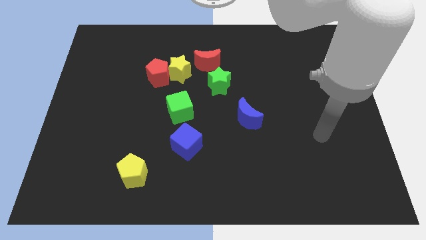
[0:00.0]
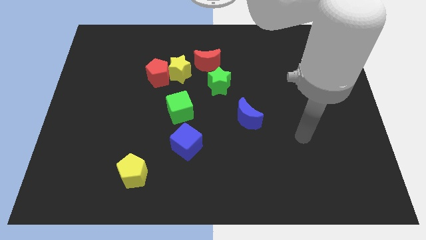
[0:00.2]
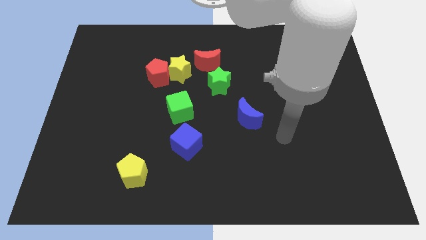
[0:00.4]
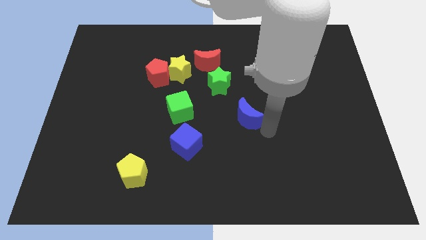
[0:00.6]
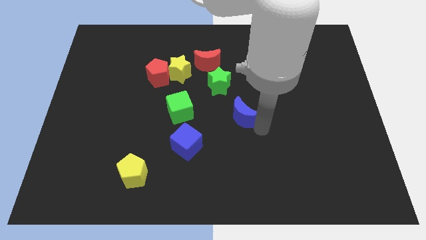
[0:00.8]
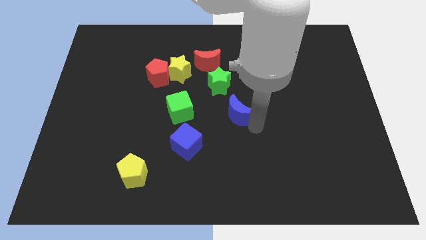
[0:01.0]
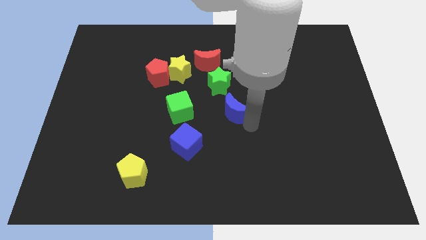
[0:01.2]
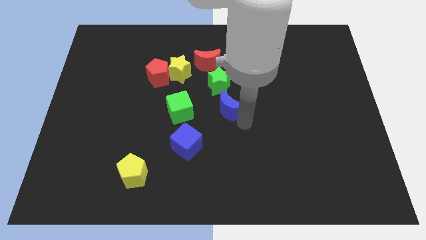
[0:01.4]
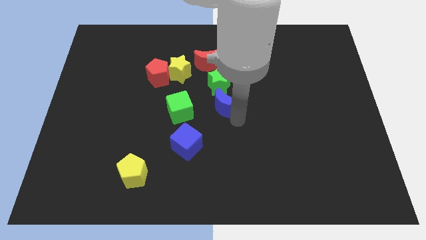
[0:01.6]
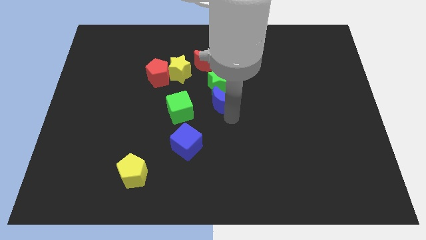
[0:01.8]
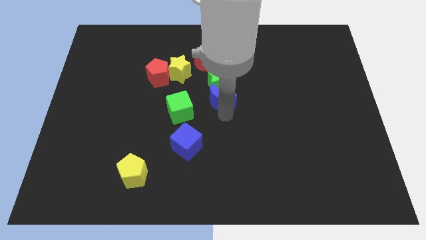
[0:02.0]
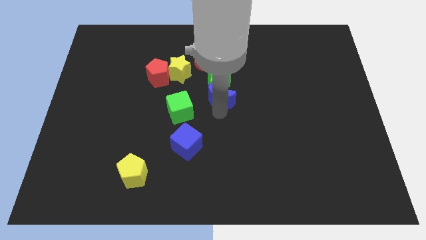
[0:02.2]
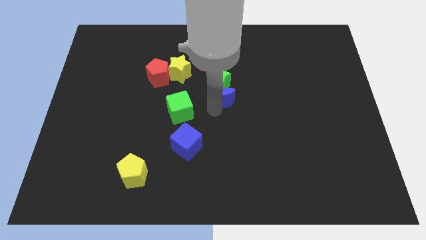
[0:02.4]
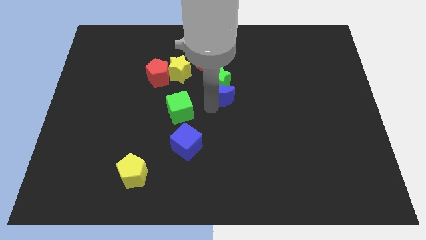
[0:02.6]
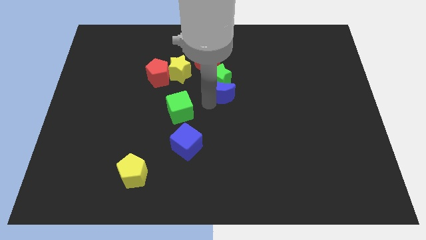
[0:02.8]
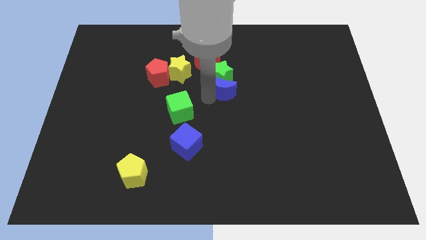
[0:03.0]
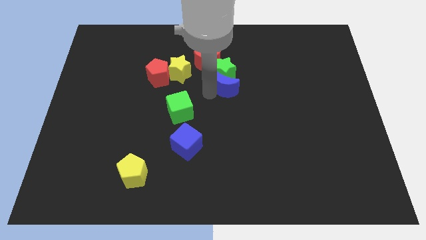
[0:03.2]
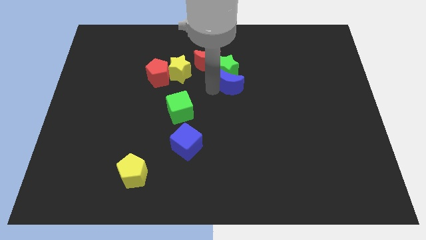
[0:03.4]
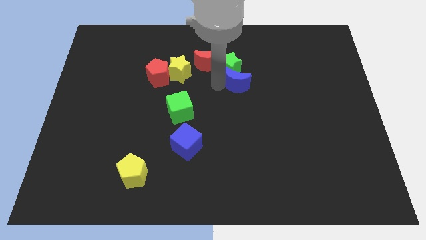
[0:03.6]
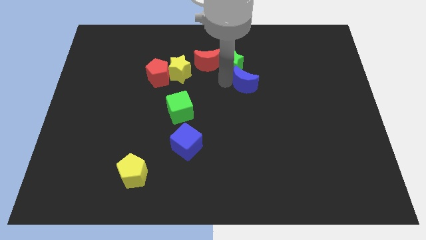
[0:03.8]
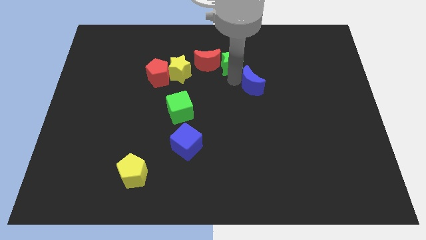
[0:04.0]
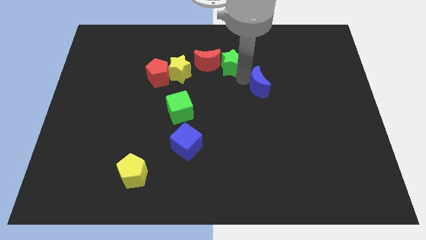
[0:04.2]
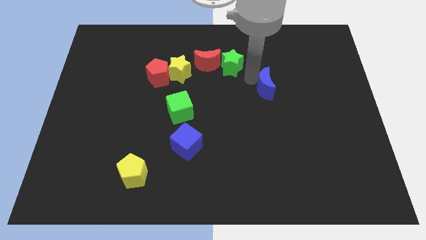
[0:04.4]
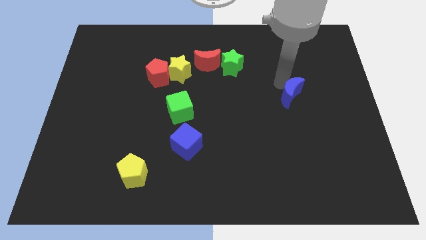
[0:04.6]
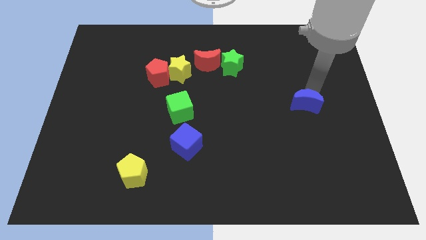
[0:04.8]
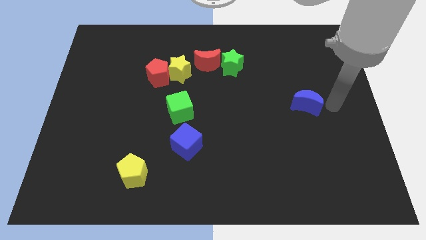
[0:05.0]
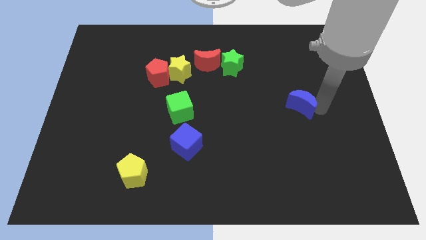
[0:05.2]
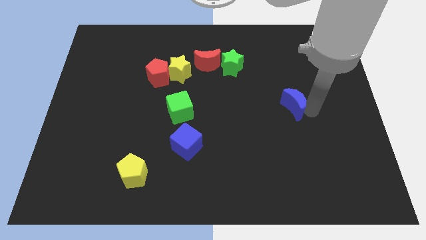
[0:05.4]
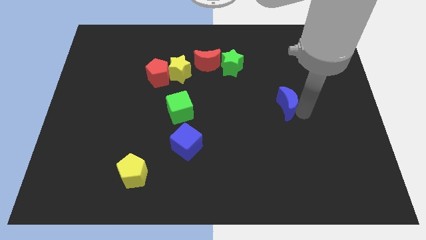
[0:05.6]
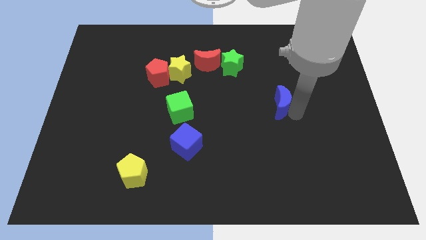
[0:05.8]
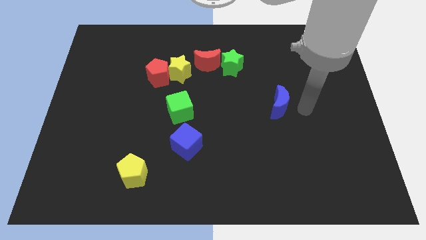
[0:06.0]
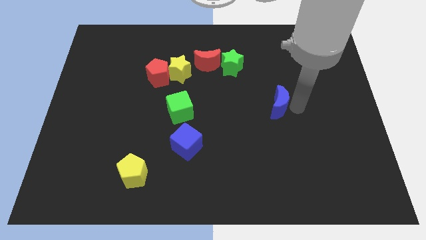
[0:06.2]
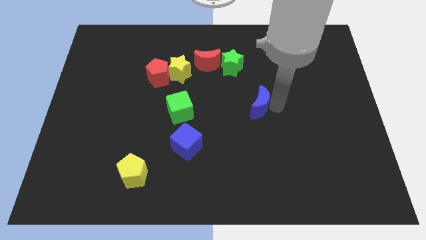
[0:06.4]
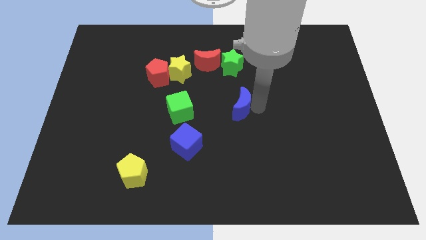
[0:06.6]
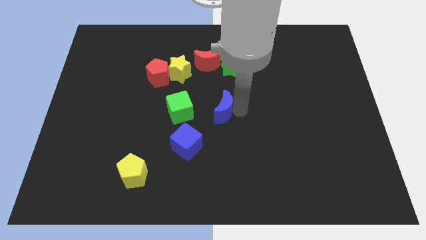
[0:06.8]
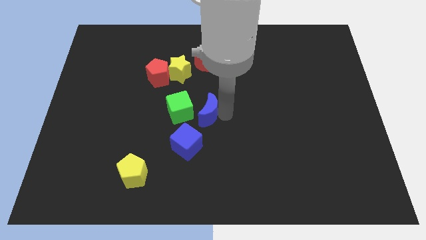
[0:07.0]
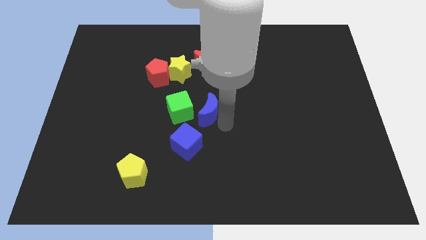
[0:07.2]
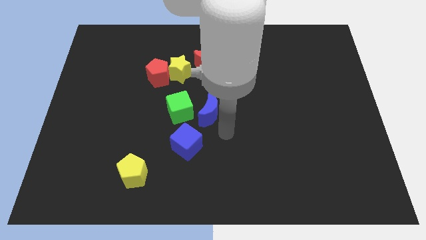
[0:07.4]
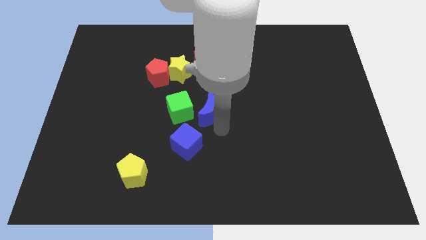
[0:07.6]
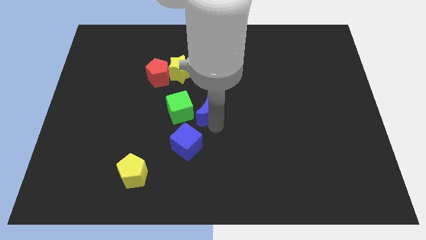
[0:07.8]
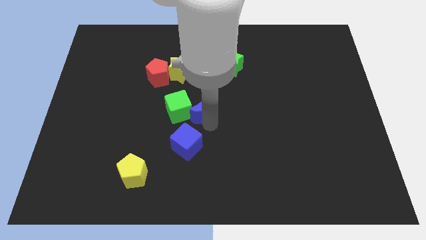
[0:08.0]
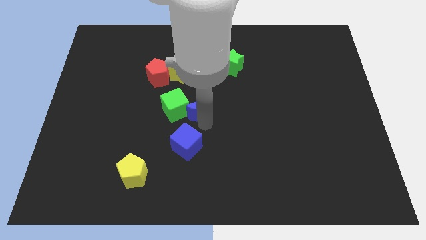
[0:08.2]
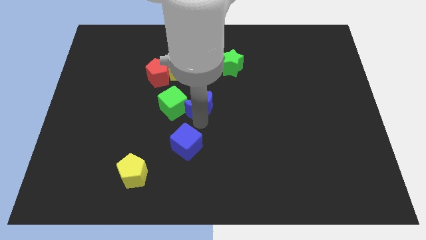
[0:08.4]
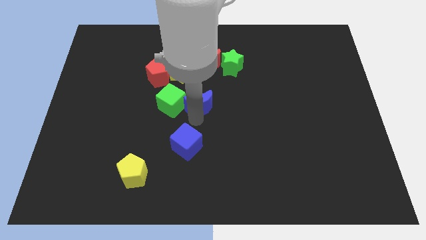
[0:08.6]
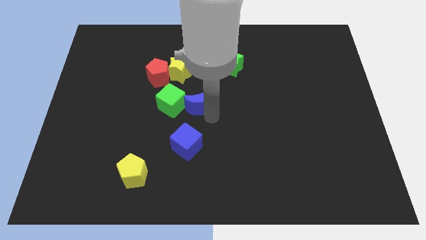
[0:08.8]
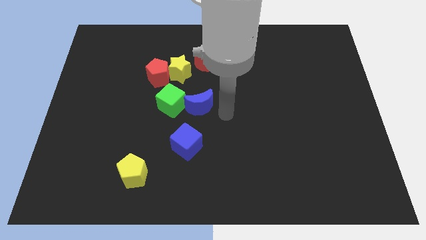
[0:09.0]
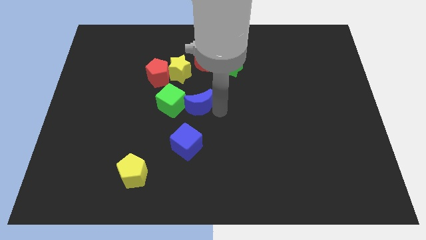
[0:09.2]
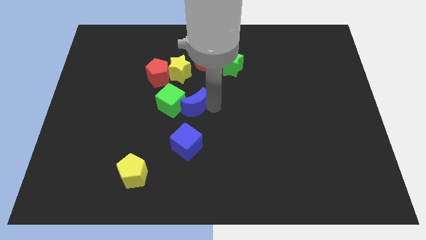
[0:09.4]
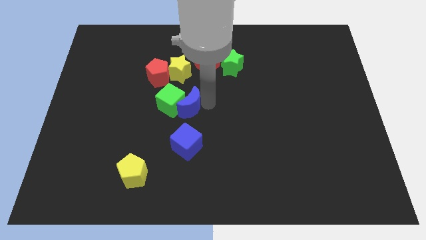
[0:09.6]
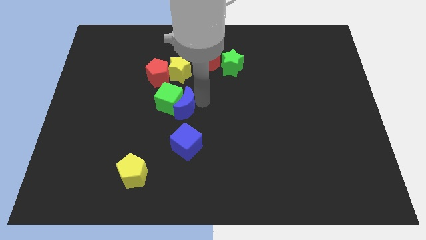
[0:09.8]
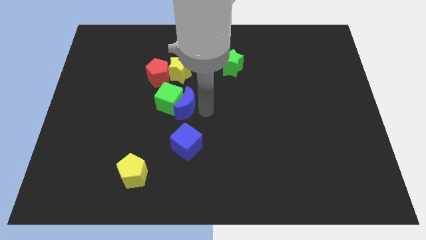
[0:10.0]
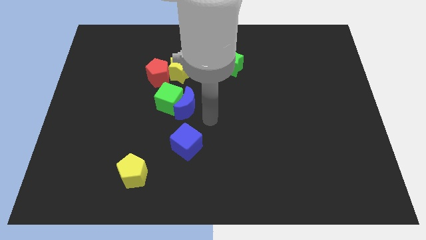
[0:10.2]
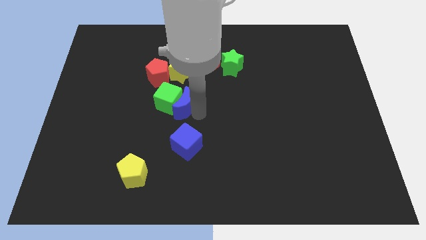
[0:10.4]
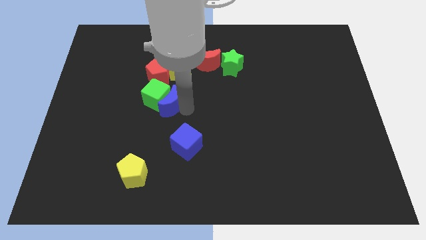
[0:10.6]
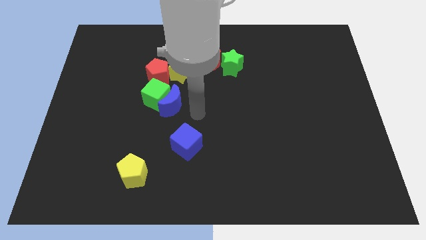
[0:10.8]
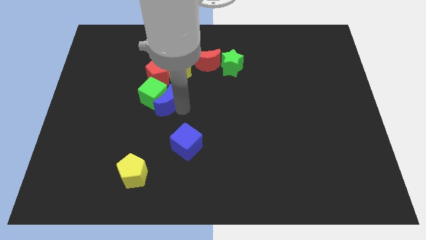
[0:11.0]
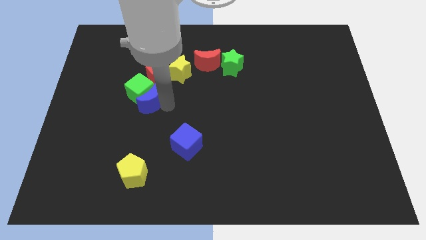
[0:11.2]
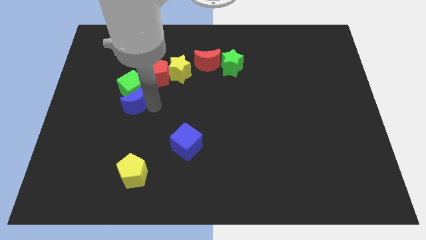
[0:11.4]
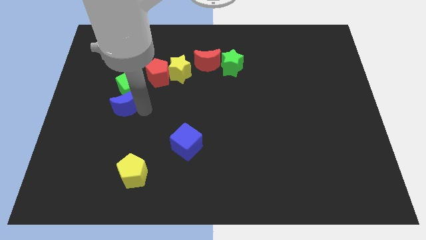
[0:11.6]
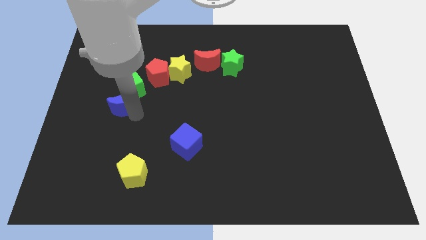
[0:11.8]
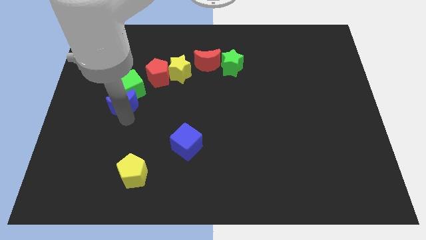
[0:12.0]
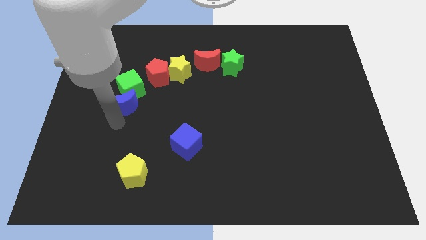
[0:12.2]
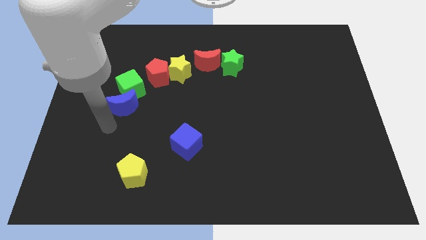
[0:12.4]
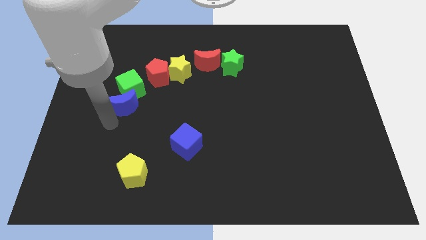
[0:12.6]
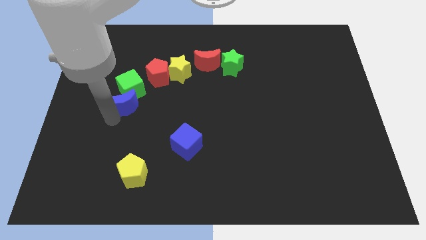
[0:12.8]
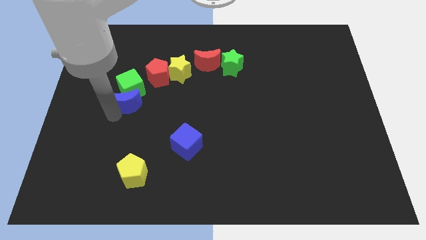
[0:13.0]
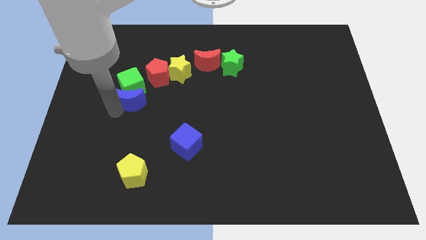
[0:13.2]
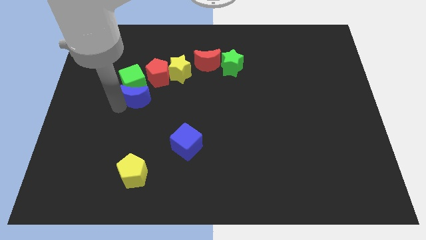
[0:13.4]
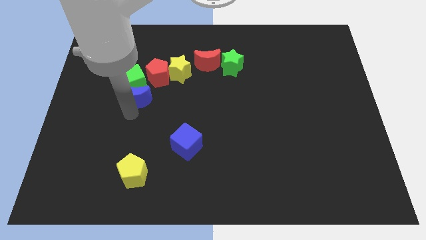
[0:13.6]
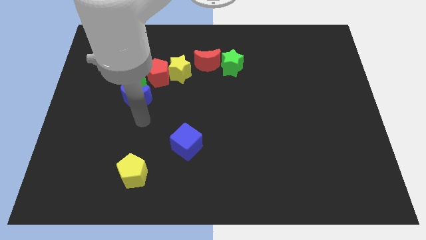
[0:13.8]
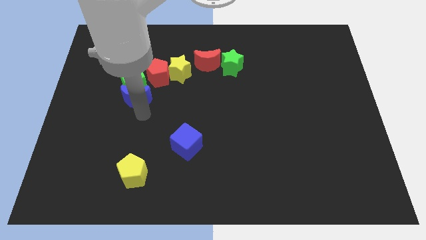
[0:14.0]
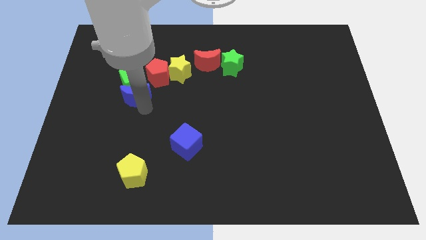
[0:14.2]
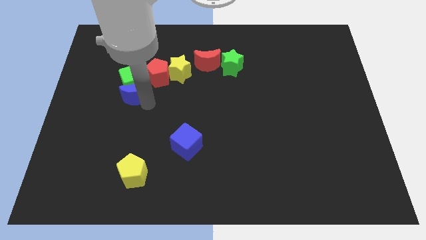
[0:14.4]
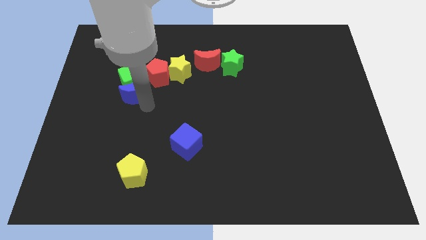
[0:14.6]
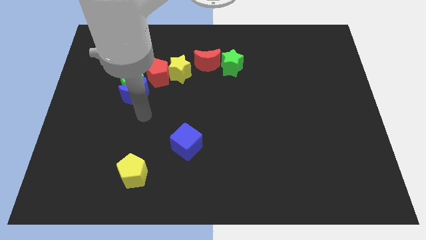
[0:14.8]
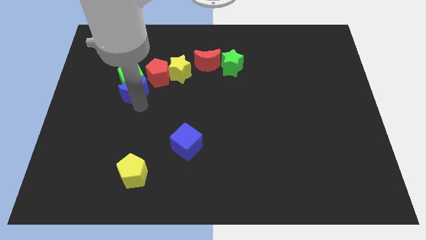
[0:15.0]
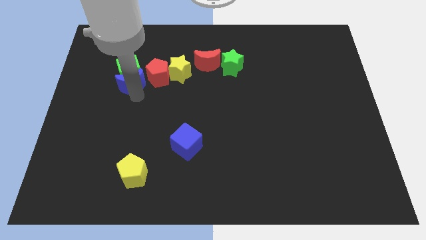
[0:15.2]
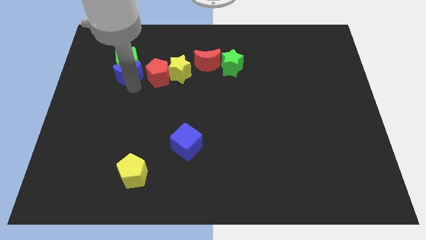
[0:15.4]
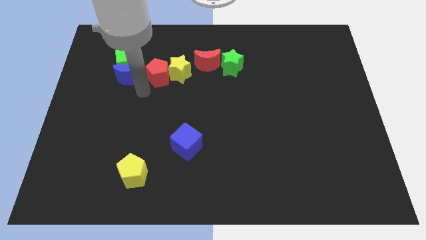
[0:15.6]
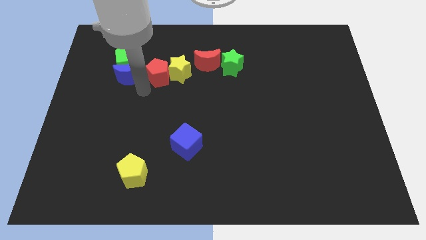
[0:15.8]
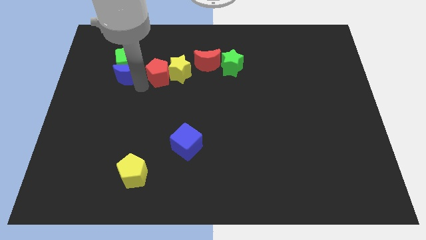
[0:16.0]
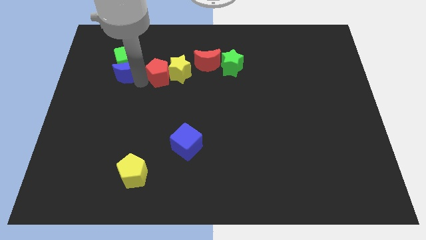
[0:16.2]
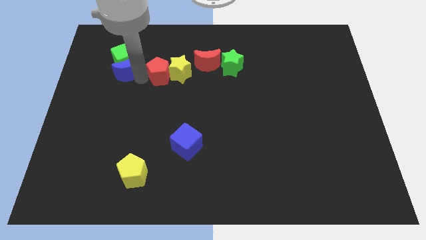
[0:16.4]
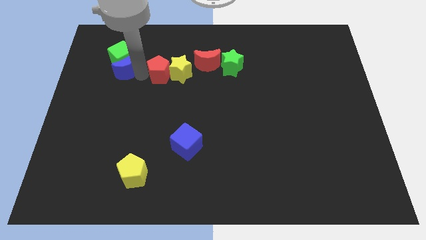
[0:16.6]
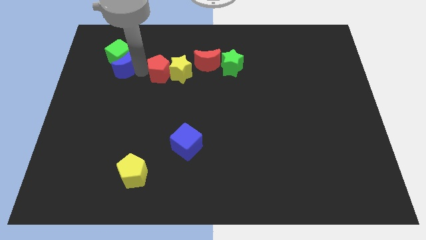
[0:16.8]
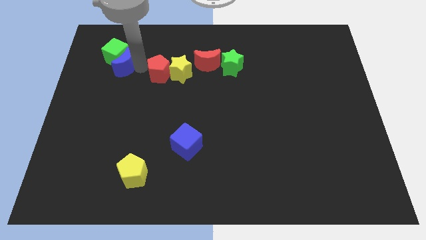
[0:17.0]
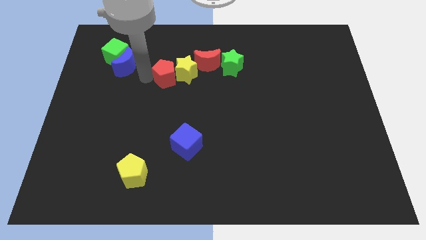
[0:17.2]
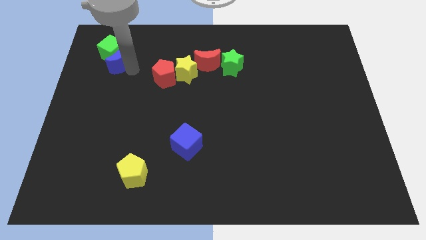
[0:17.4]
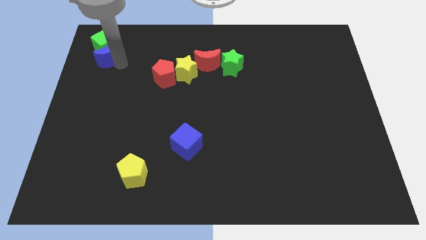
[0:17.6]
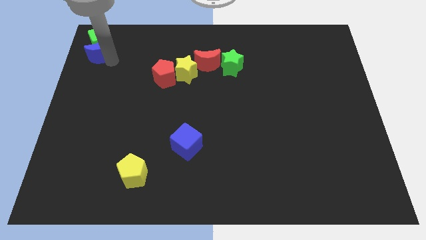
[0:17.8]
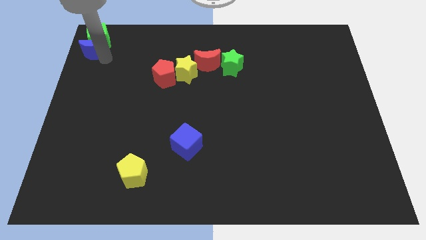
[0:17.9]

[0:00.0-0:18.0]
move the blue moon to the top left of the board
